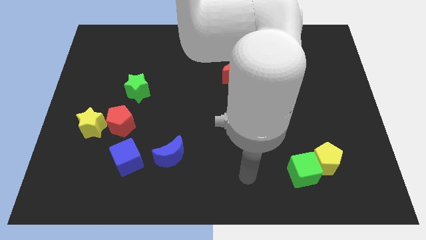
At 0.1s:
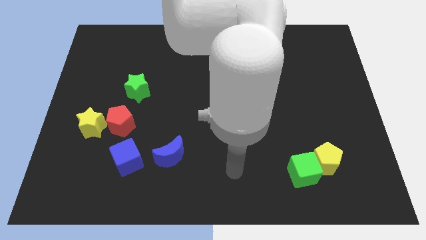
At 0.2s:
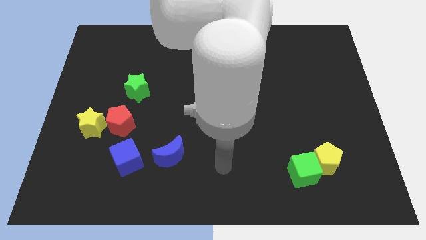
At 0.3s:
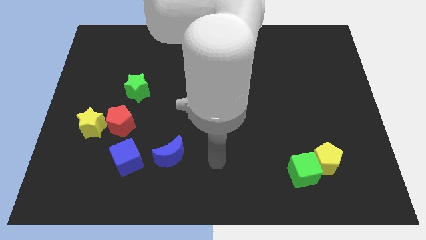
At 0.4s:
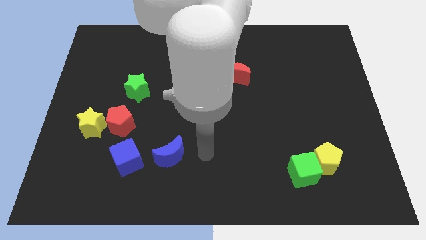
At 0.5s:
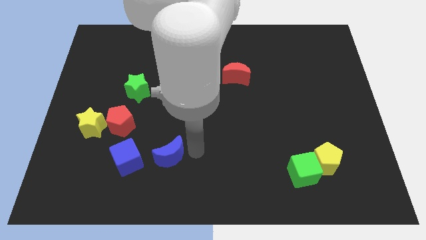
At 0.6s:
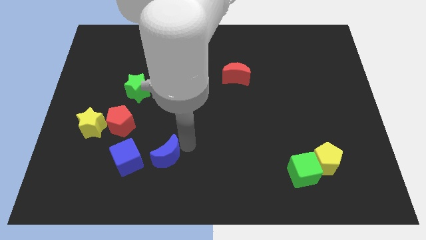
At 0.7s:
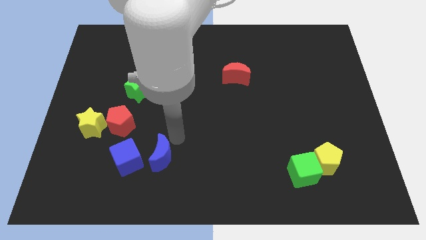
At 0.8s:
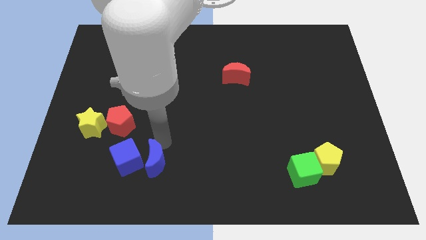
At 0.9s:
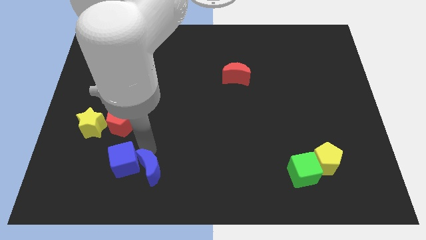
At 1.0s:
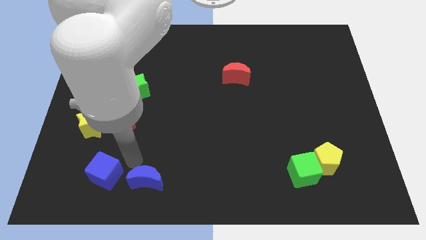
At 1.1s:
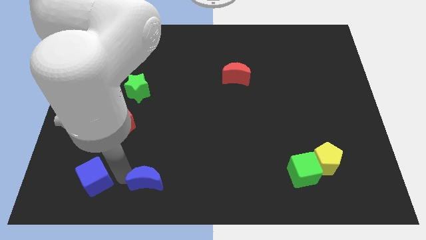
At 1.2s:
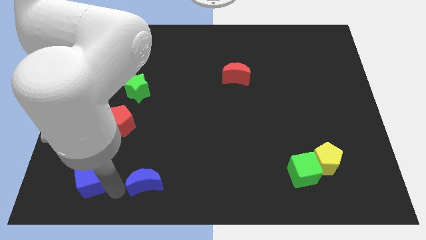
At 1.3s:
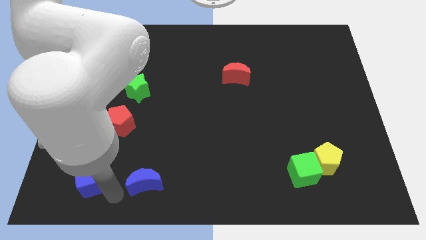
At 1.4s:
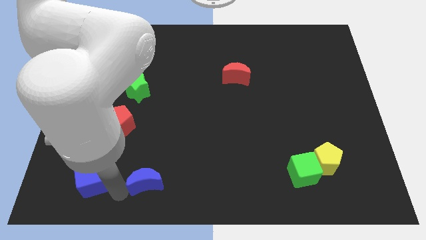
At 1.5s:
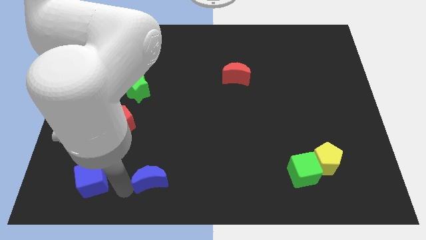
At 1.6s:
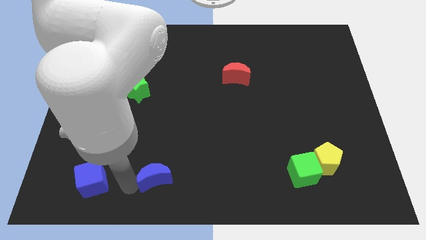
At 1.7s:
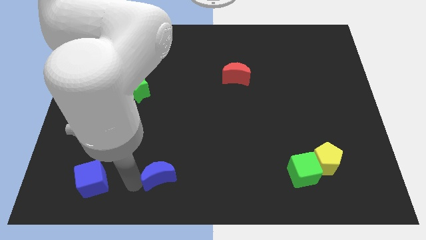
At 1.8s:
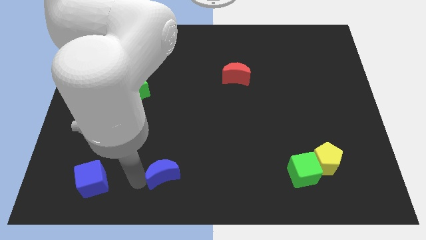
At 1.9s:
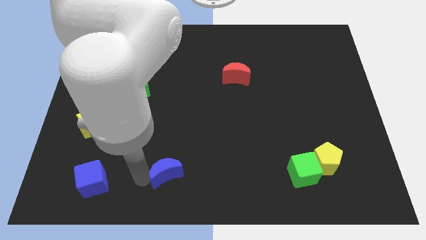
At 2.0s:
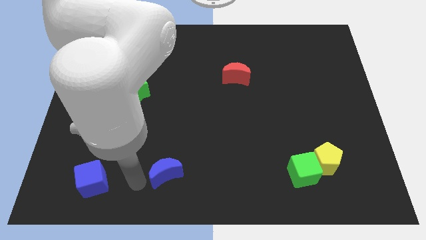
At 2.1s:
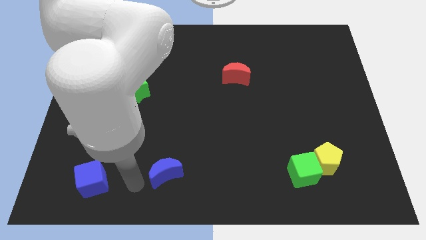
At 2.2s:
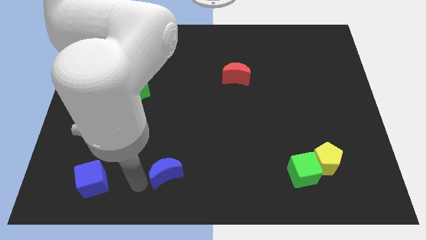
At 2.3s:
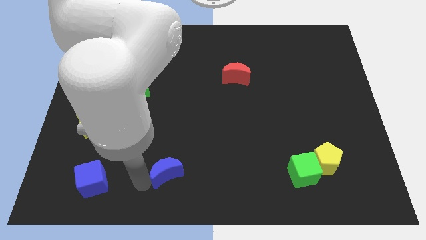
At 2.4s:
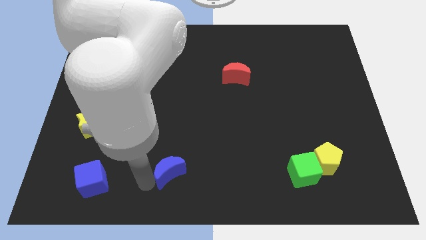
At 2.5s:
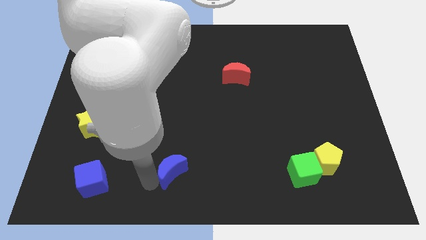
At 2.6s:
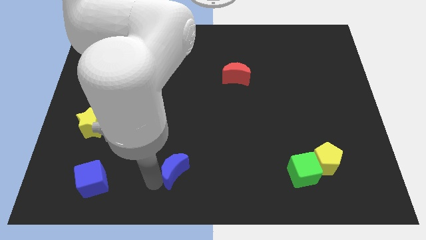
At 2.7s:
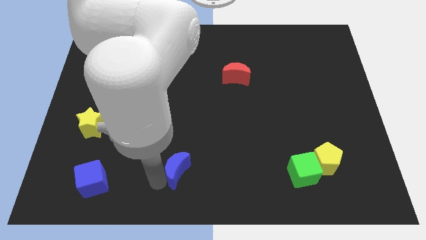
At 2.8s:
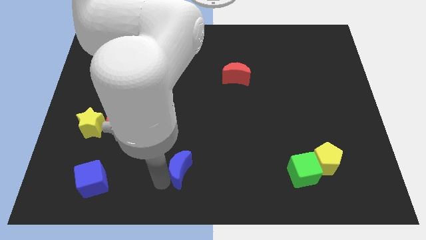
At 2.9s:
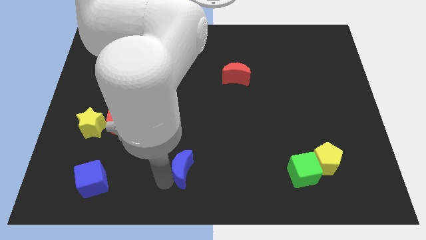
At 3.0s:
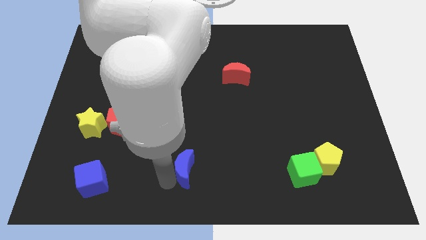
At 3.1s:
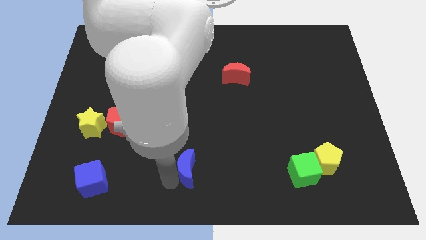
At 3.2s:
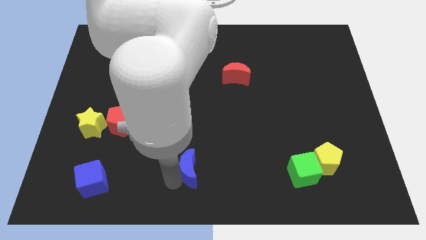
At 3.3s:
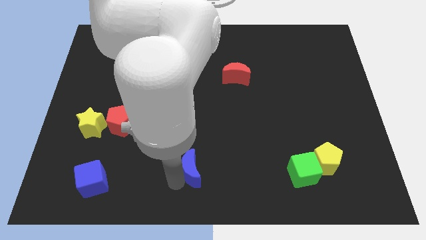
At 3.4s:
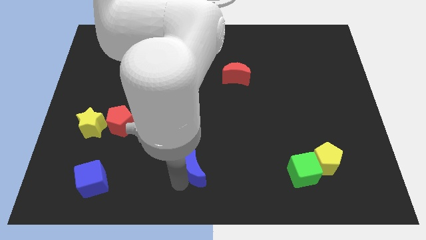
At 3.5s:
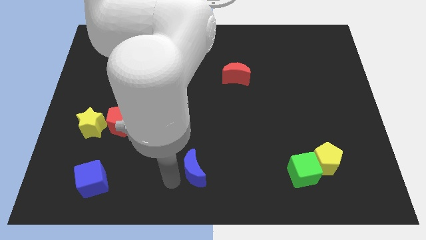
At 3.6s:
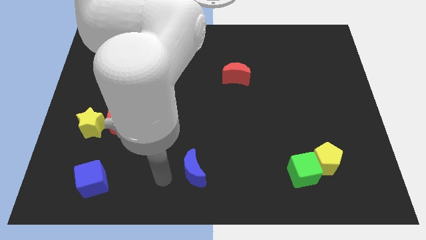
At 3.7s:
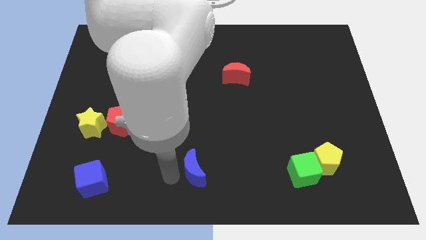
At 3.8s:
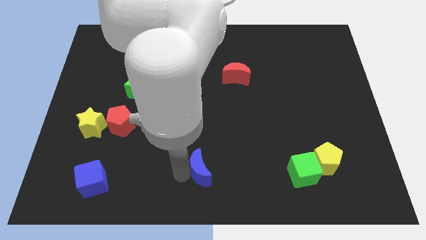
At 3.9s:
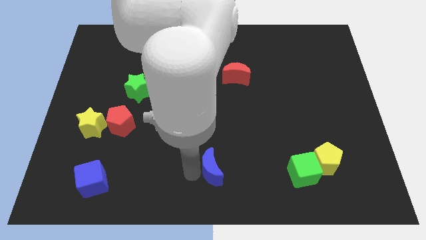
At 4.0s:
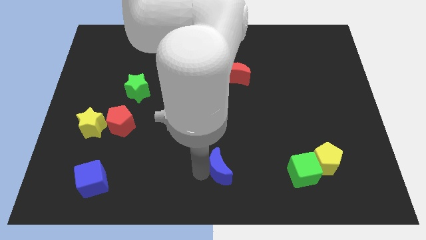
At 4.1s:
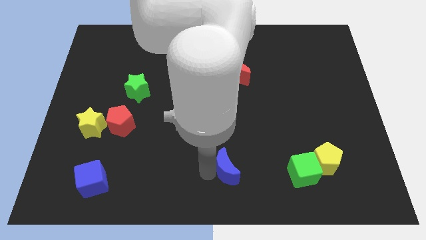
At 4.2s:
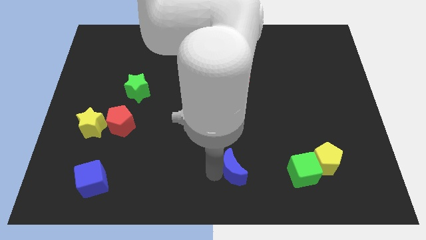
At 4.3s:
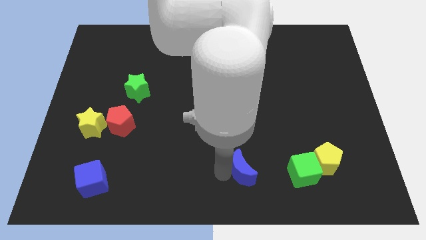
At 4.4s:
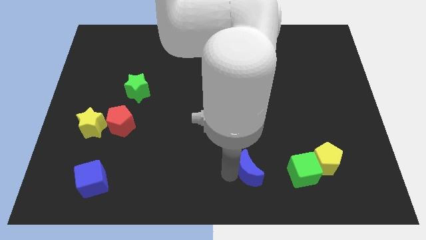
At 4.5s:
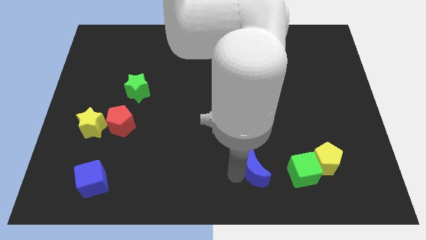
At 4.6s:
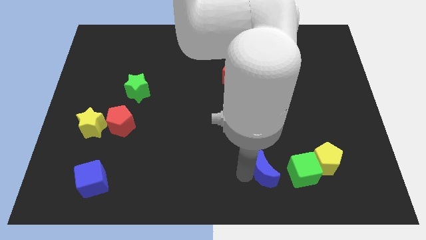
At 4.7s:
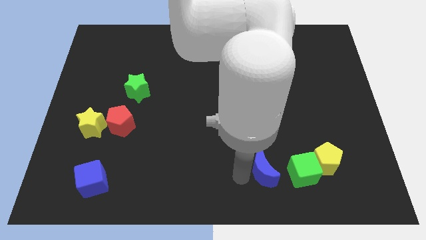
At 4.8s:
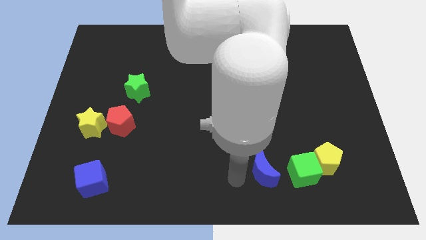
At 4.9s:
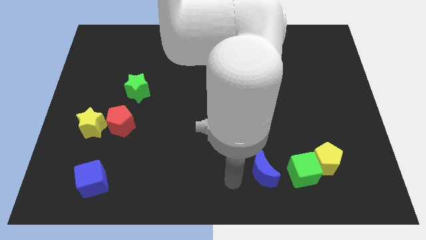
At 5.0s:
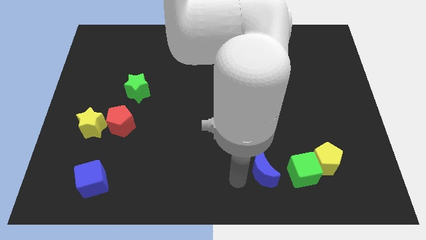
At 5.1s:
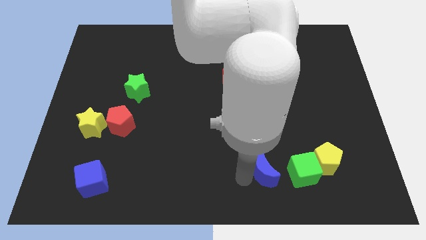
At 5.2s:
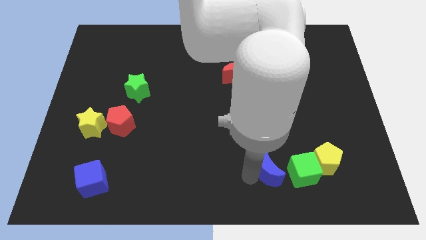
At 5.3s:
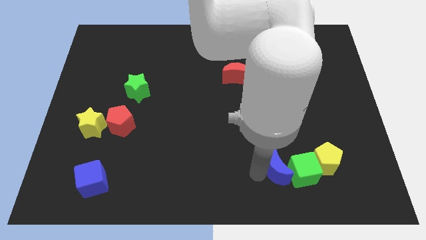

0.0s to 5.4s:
put the blue moon to the green cube

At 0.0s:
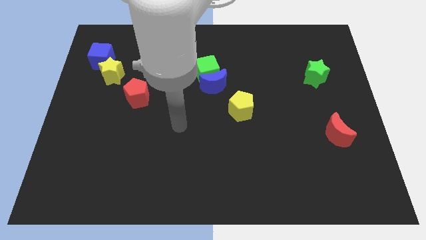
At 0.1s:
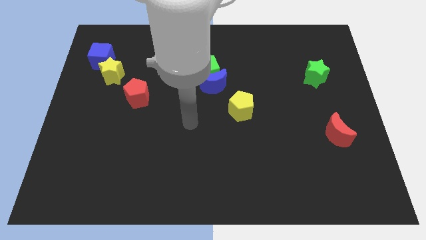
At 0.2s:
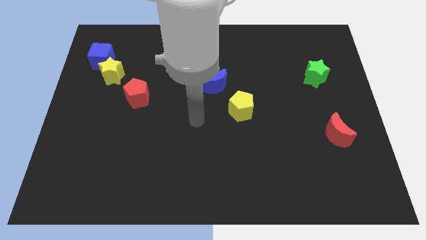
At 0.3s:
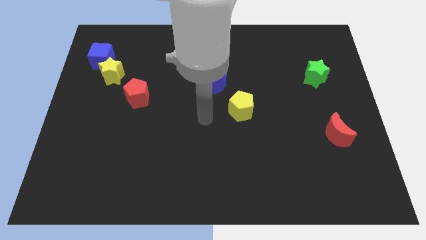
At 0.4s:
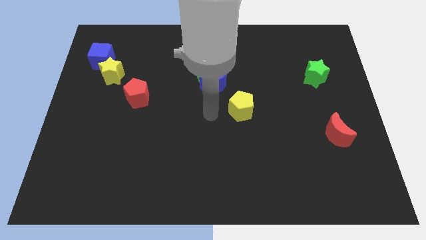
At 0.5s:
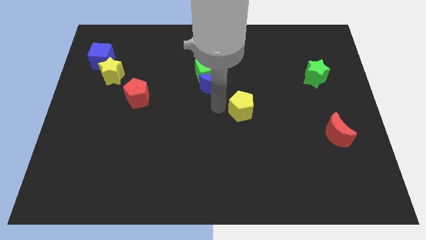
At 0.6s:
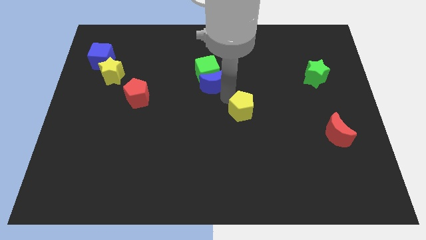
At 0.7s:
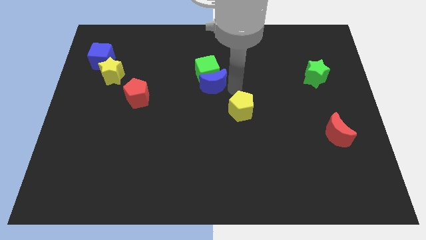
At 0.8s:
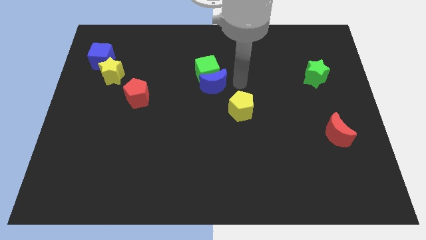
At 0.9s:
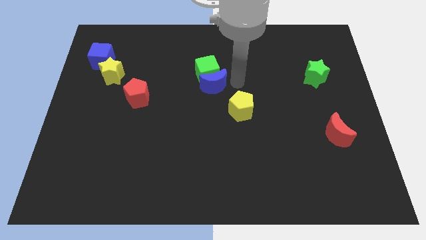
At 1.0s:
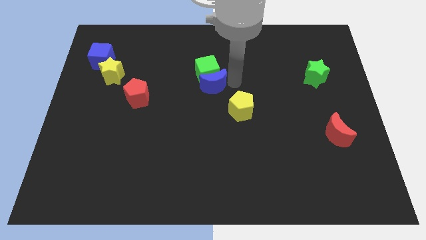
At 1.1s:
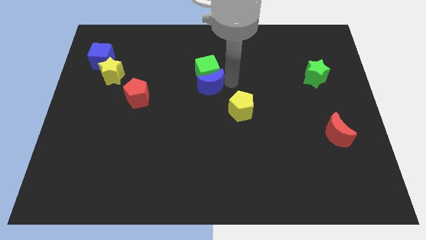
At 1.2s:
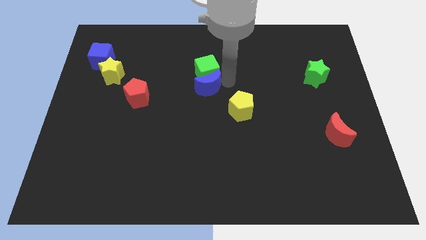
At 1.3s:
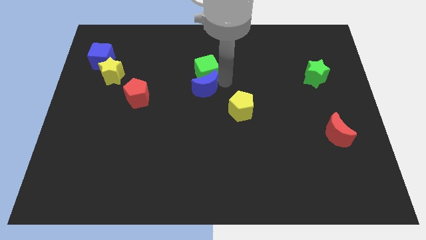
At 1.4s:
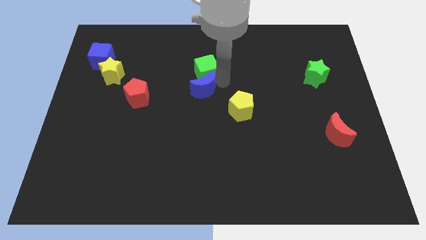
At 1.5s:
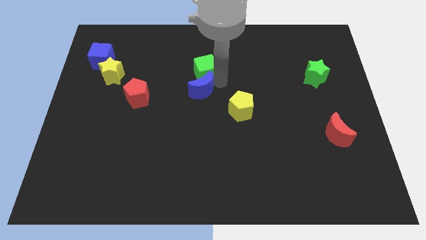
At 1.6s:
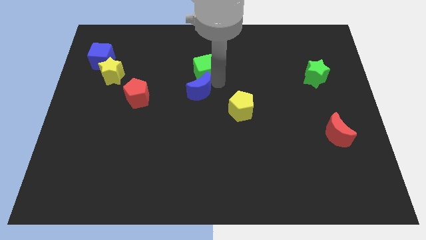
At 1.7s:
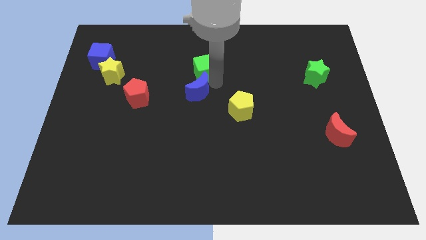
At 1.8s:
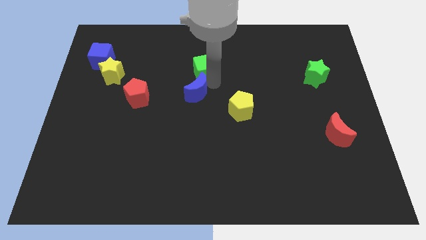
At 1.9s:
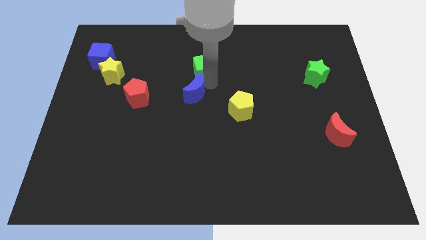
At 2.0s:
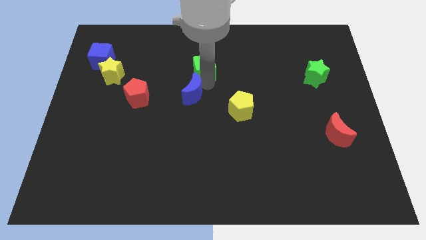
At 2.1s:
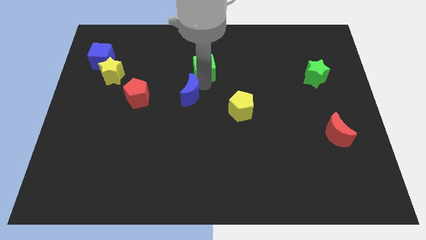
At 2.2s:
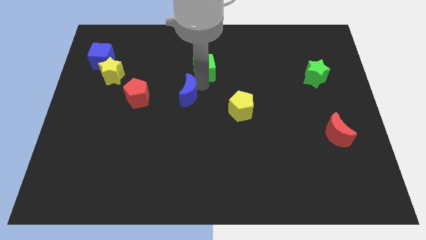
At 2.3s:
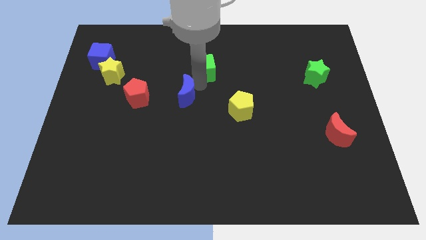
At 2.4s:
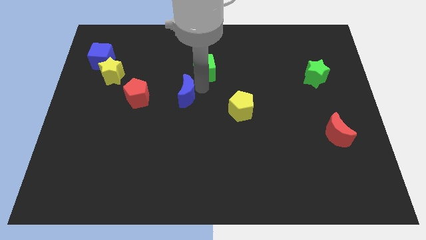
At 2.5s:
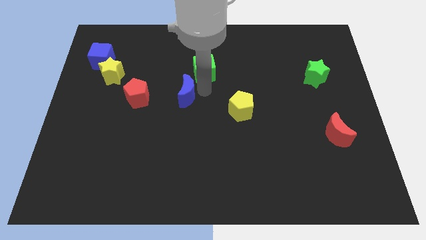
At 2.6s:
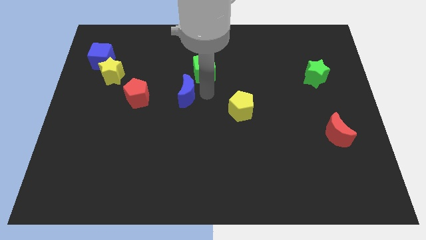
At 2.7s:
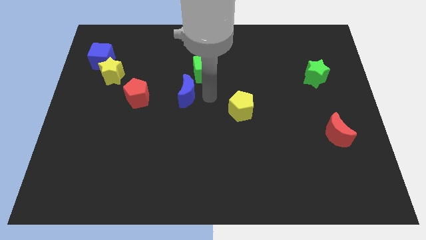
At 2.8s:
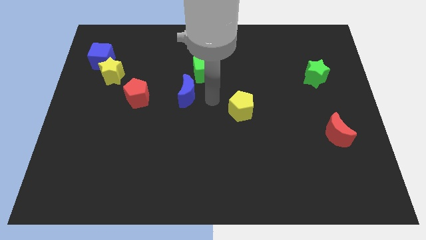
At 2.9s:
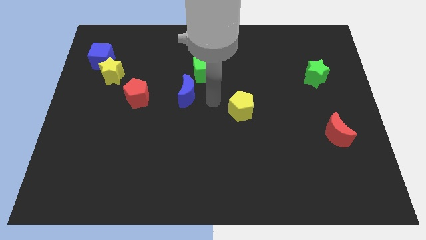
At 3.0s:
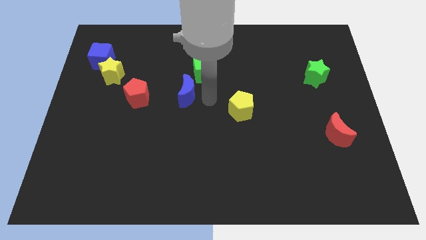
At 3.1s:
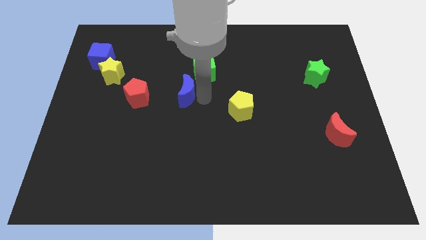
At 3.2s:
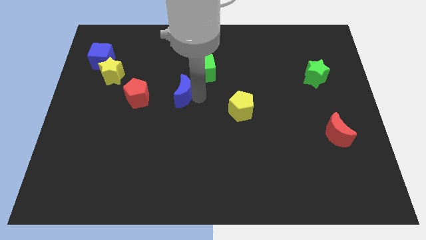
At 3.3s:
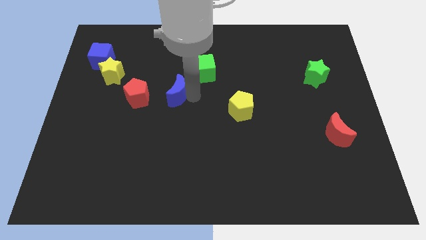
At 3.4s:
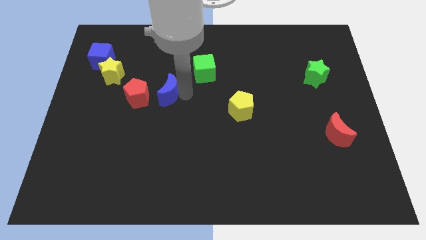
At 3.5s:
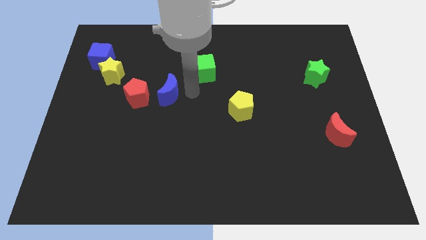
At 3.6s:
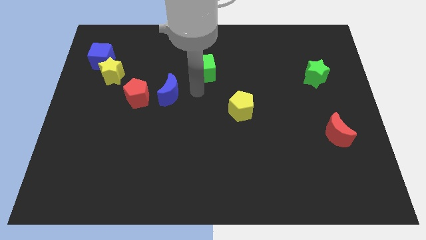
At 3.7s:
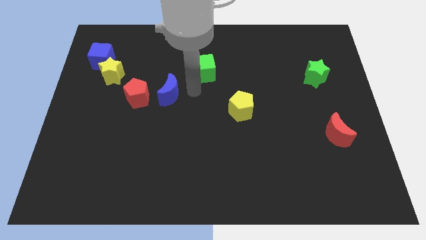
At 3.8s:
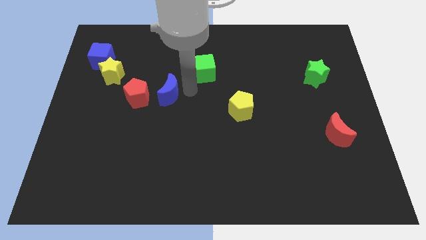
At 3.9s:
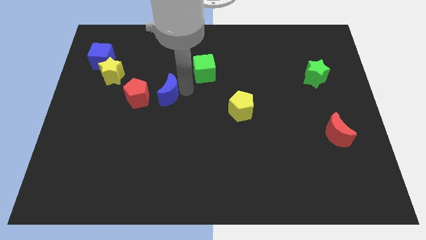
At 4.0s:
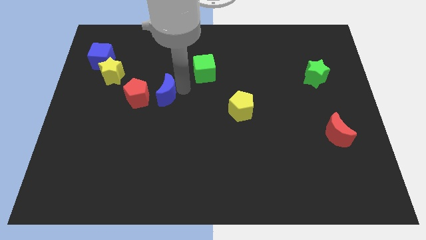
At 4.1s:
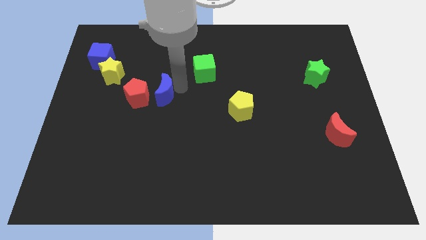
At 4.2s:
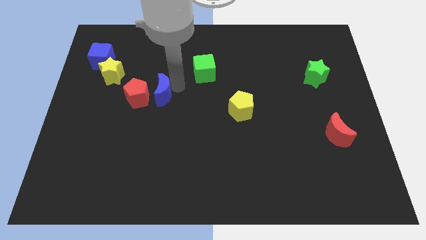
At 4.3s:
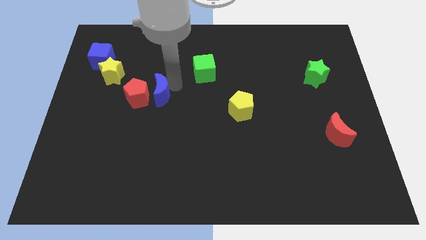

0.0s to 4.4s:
slide the blue moon close to the red pentagon
